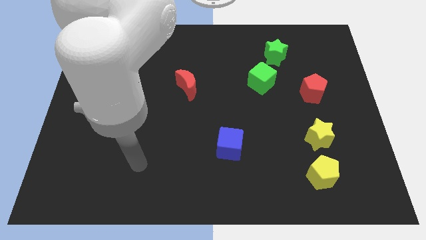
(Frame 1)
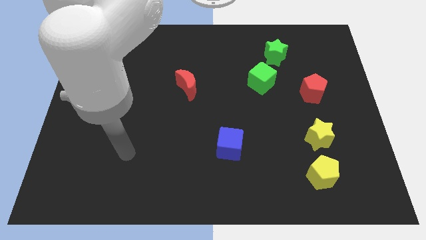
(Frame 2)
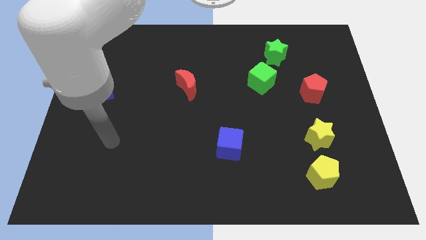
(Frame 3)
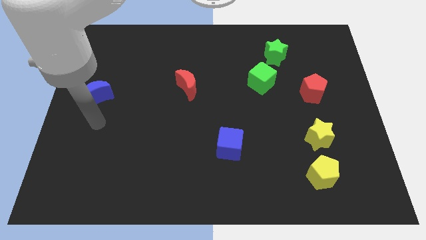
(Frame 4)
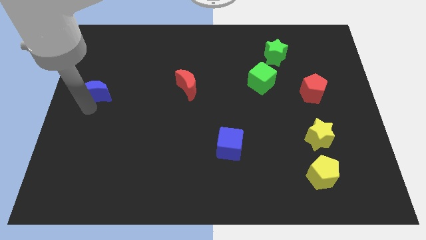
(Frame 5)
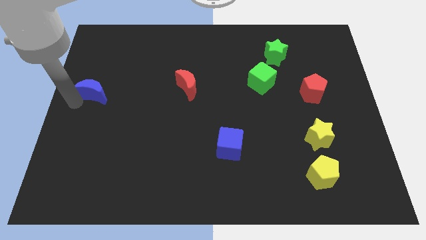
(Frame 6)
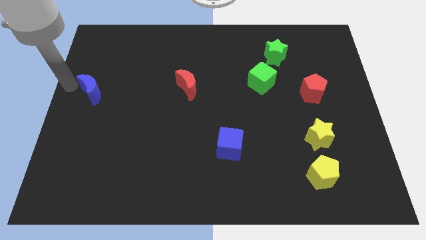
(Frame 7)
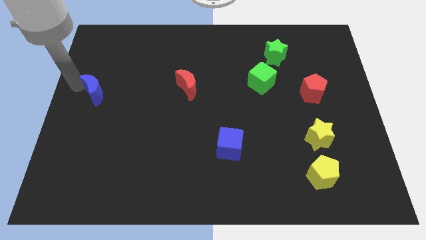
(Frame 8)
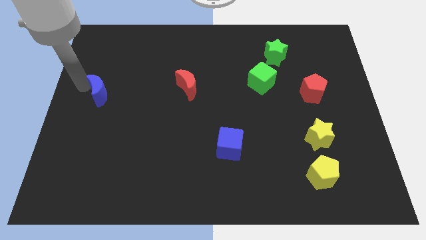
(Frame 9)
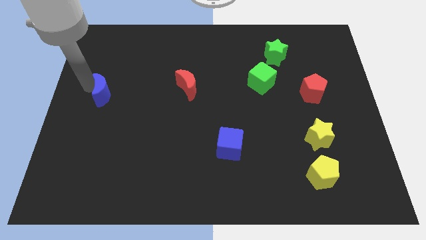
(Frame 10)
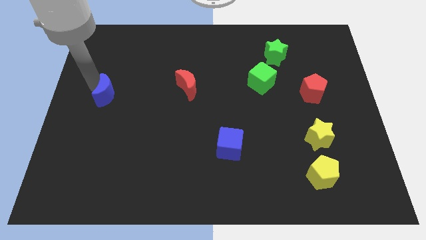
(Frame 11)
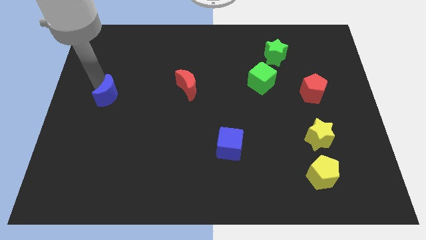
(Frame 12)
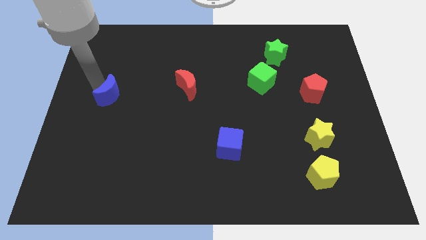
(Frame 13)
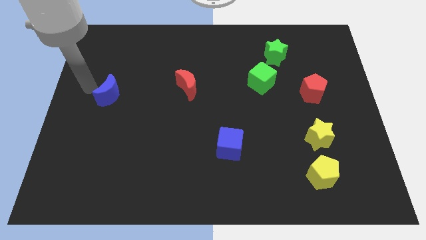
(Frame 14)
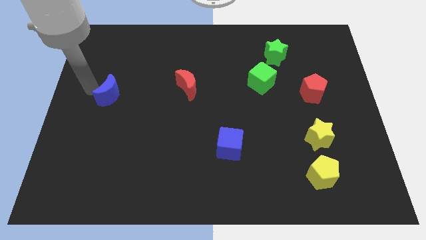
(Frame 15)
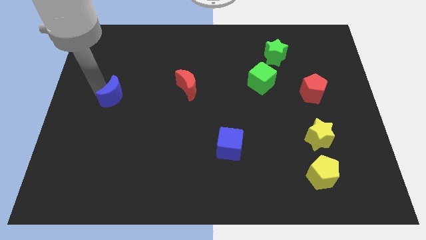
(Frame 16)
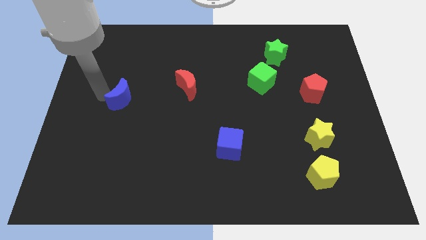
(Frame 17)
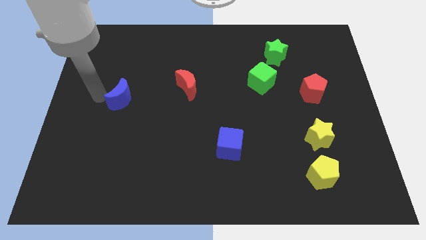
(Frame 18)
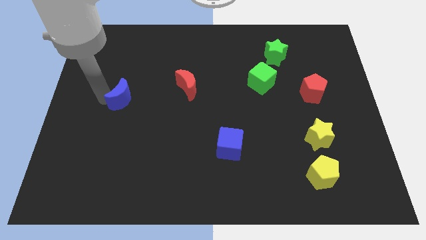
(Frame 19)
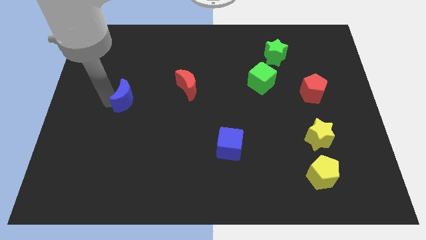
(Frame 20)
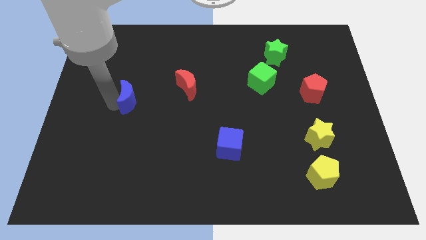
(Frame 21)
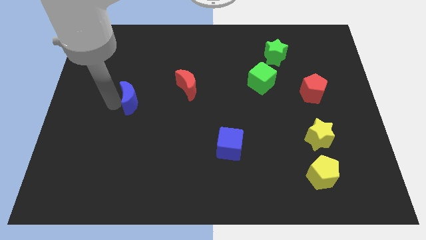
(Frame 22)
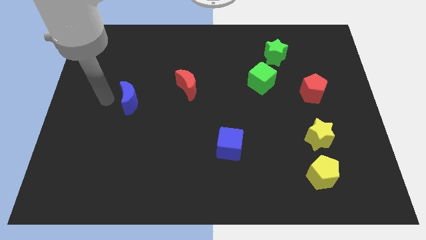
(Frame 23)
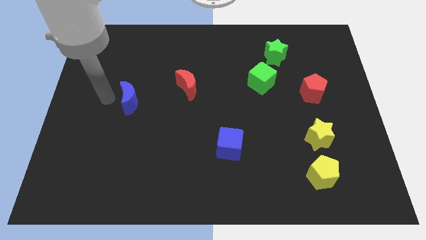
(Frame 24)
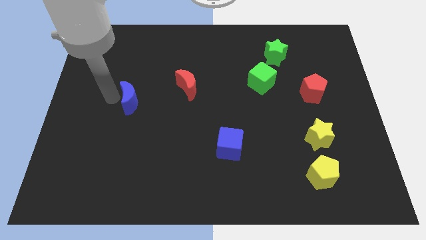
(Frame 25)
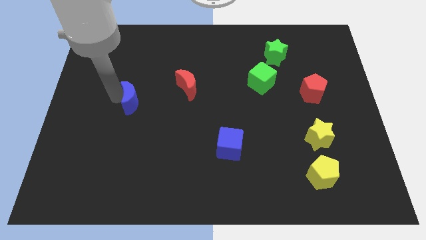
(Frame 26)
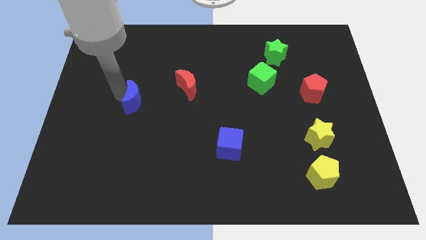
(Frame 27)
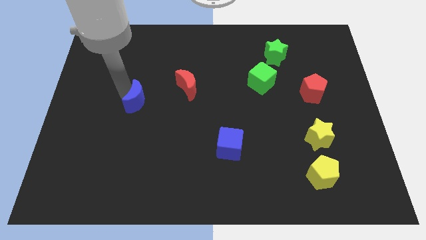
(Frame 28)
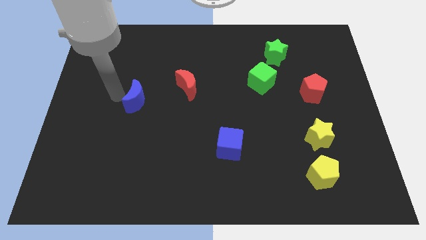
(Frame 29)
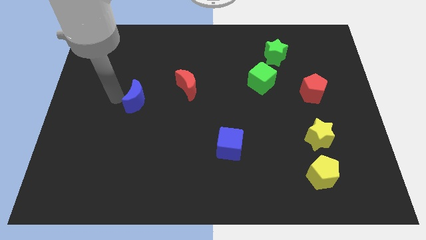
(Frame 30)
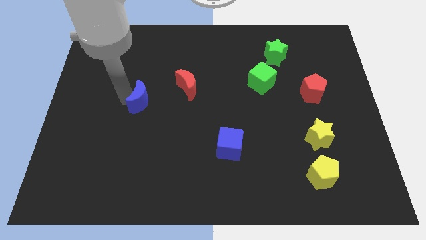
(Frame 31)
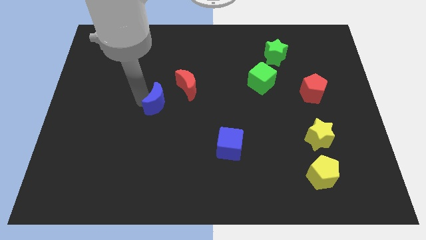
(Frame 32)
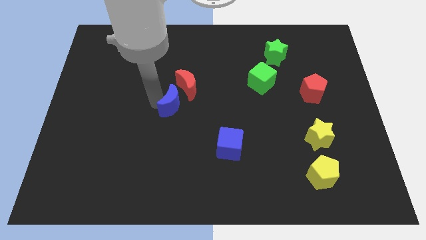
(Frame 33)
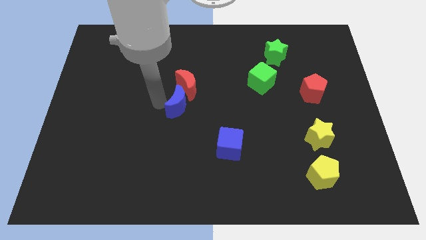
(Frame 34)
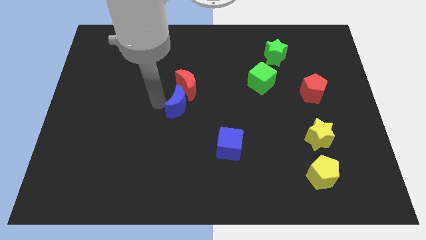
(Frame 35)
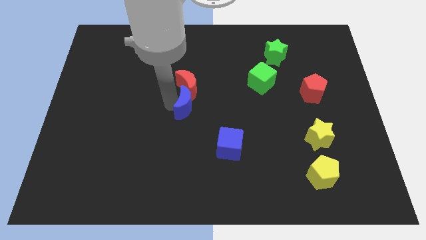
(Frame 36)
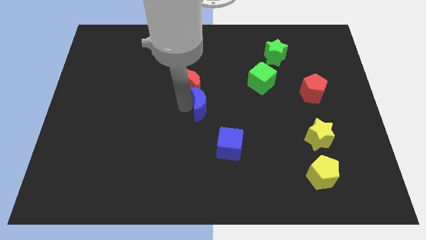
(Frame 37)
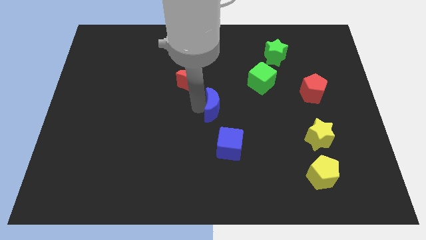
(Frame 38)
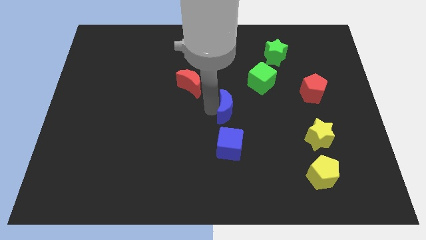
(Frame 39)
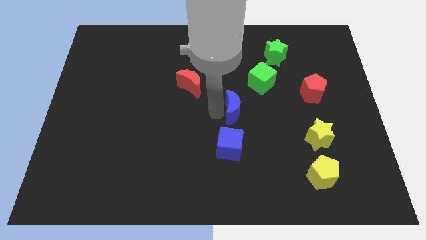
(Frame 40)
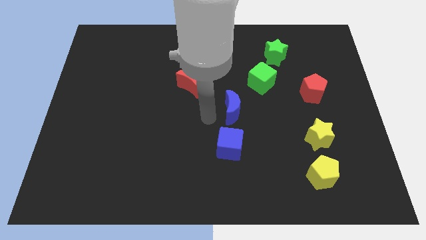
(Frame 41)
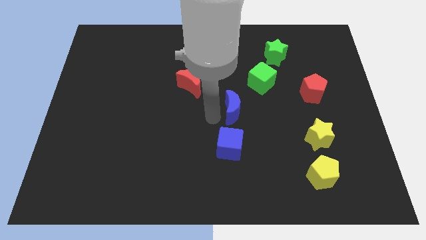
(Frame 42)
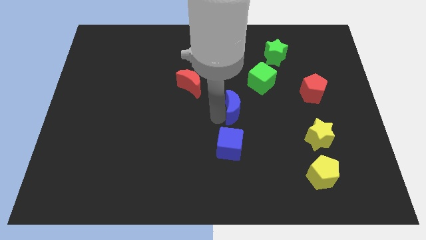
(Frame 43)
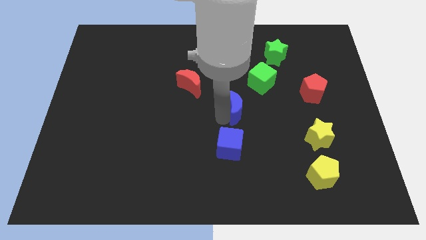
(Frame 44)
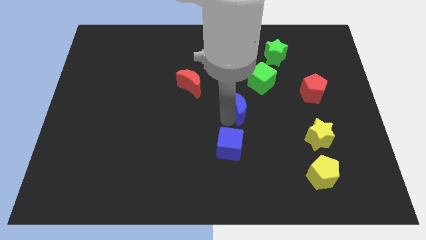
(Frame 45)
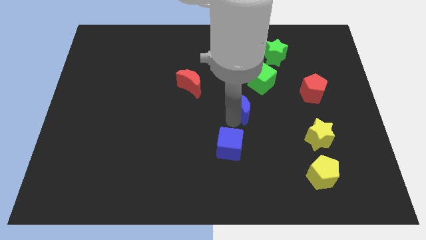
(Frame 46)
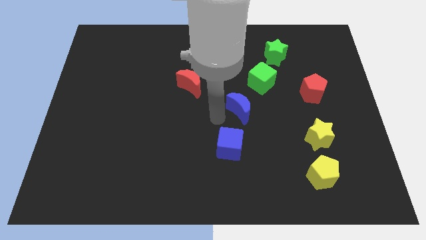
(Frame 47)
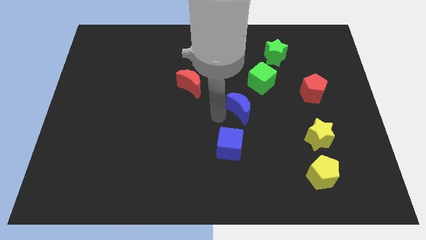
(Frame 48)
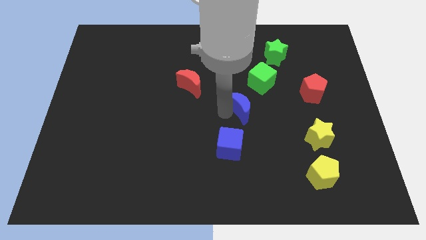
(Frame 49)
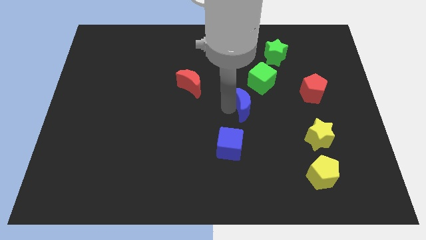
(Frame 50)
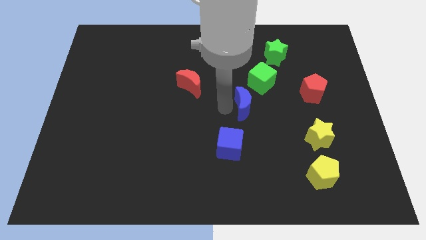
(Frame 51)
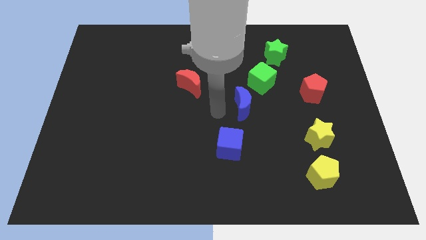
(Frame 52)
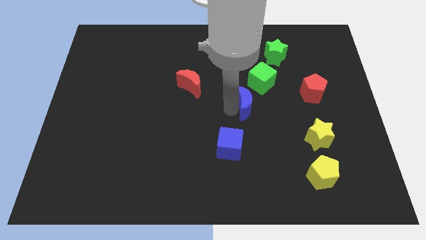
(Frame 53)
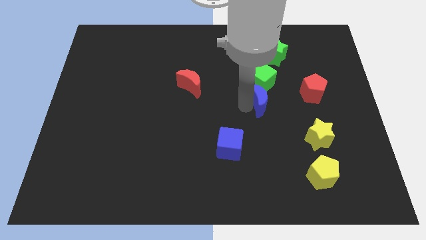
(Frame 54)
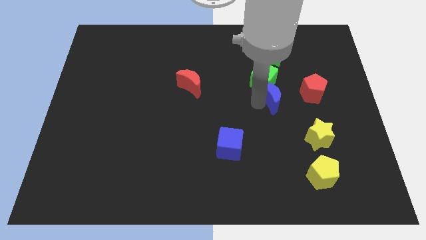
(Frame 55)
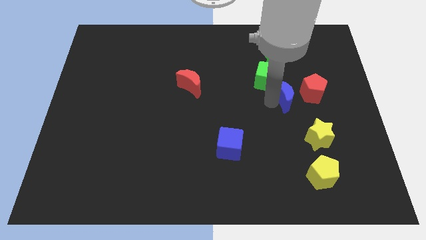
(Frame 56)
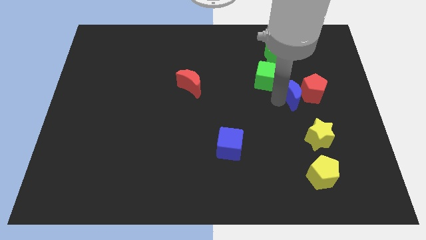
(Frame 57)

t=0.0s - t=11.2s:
push the blue moon towards the red pentagon

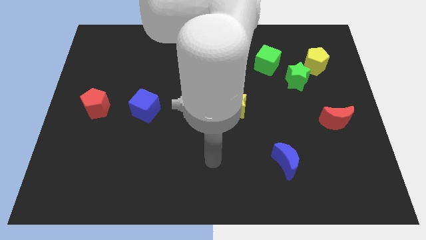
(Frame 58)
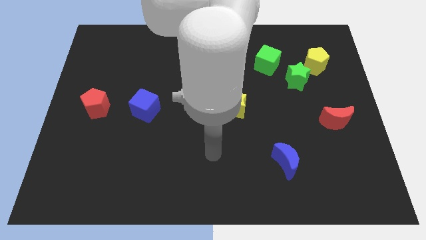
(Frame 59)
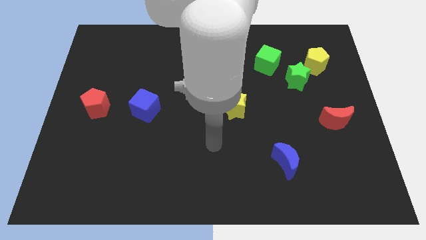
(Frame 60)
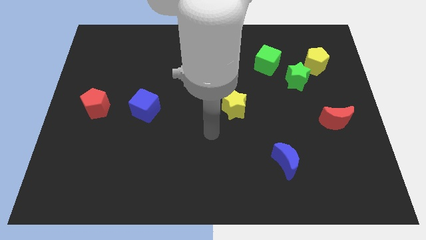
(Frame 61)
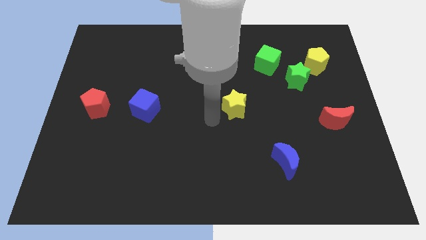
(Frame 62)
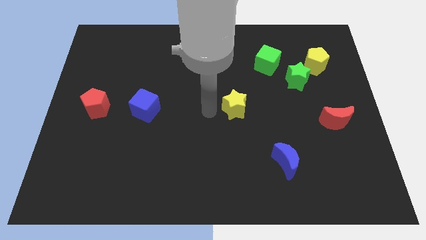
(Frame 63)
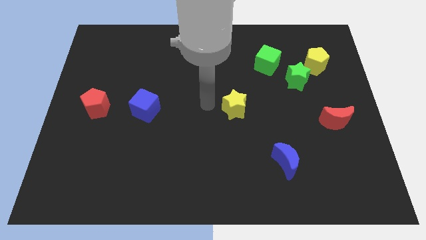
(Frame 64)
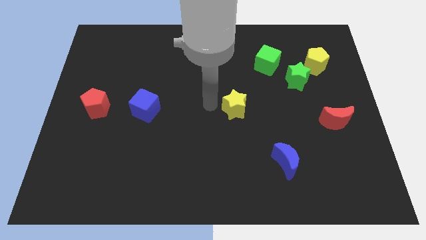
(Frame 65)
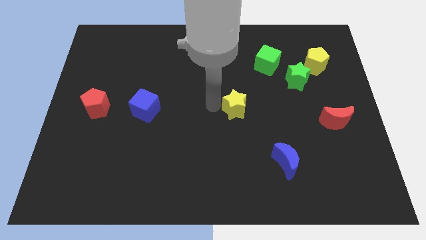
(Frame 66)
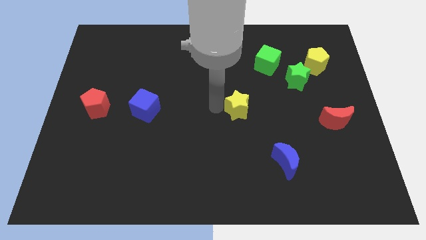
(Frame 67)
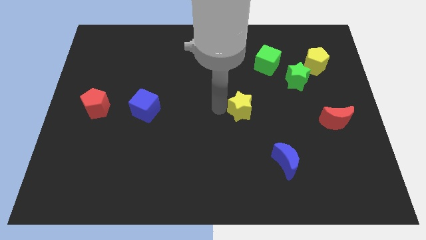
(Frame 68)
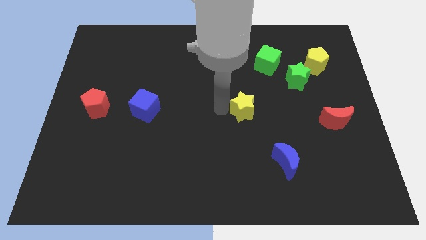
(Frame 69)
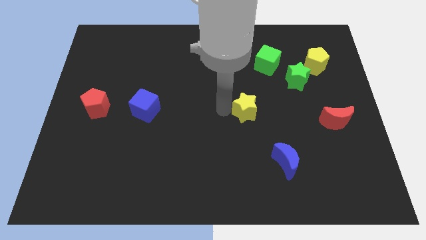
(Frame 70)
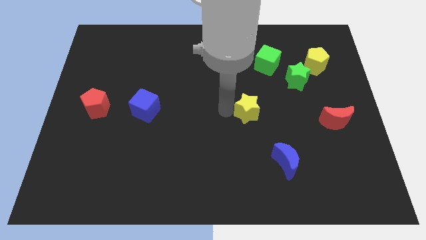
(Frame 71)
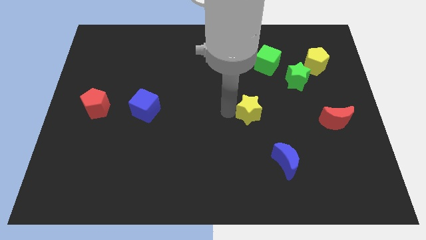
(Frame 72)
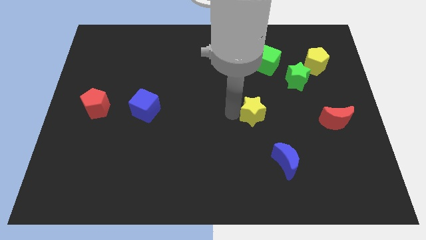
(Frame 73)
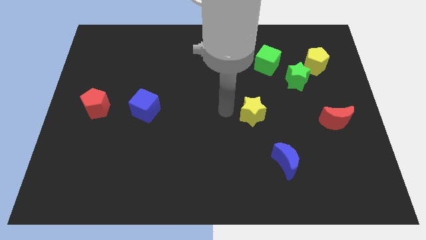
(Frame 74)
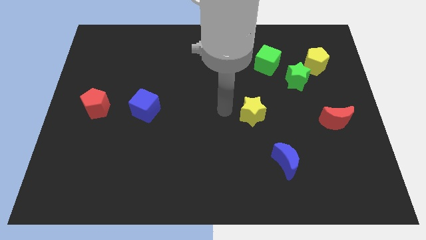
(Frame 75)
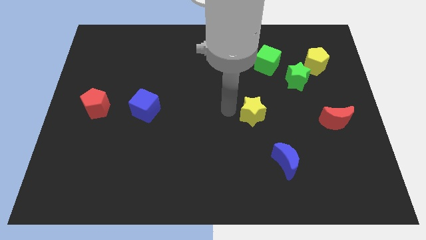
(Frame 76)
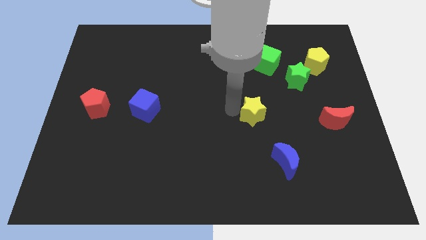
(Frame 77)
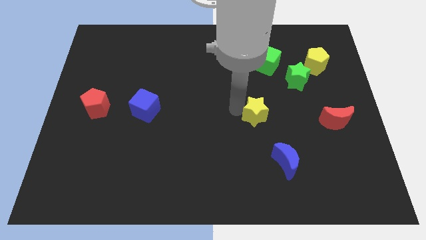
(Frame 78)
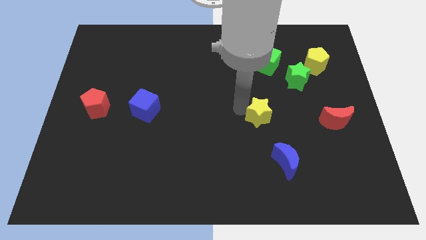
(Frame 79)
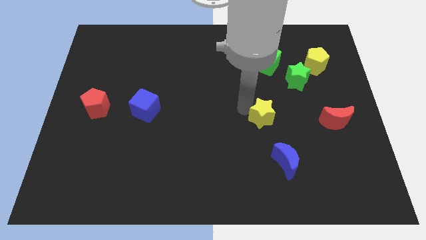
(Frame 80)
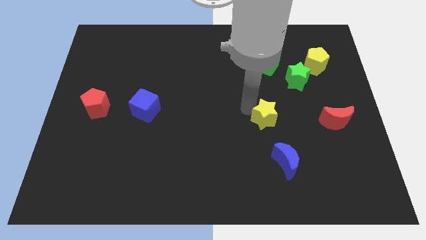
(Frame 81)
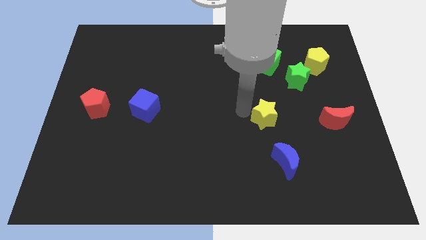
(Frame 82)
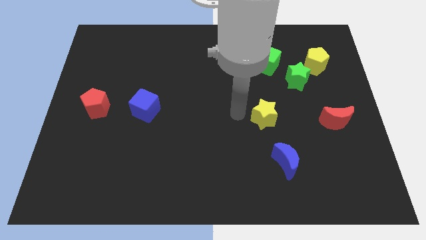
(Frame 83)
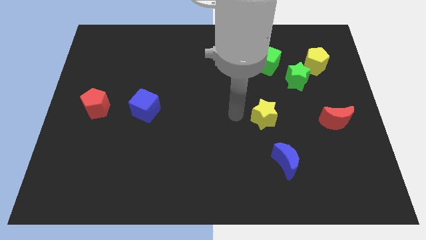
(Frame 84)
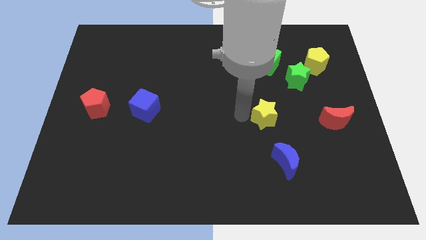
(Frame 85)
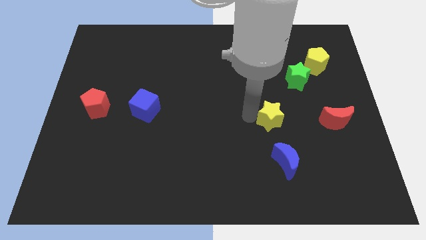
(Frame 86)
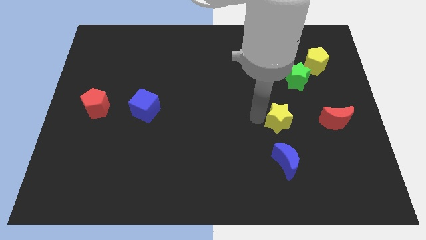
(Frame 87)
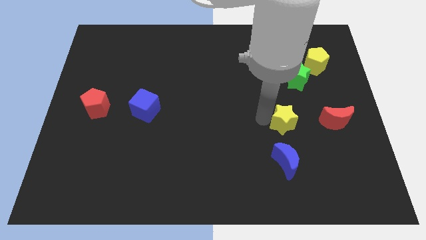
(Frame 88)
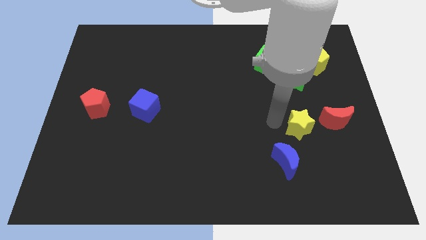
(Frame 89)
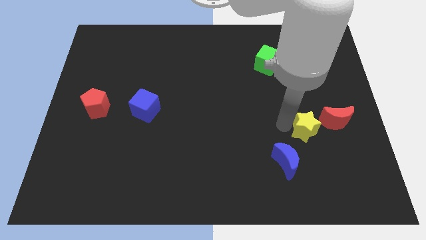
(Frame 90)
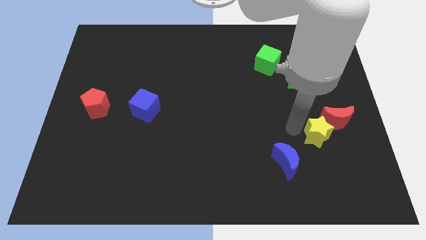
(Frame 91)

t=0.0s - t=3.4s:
slide the yellow star to the red moon
